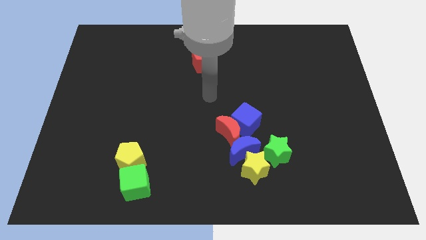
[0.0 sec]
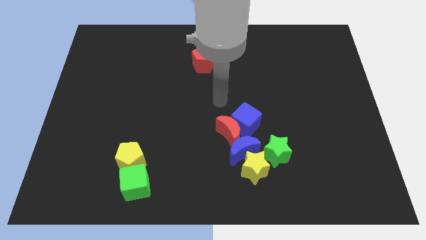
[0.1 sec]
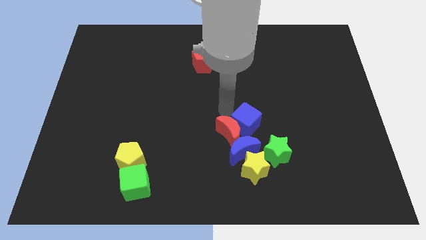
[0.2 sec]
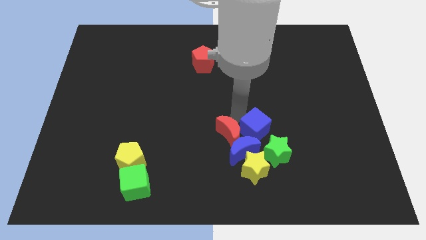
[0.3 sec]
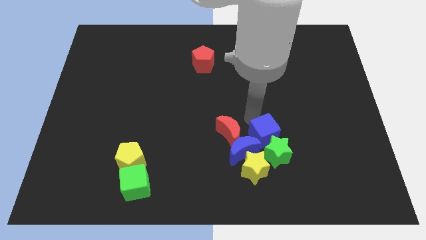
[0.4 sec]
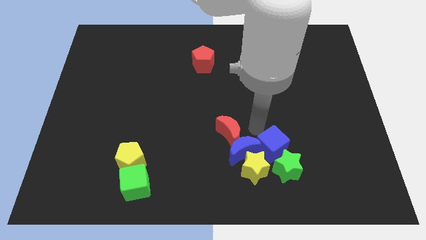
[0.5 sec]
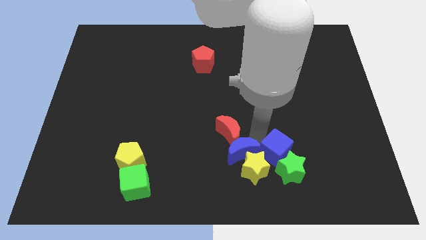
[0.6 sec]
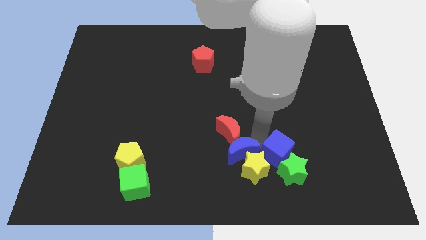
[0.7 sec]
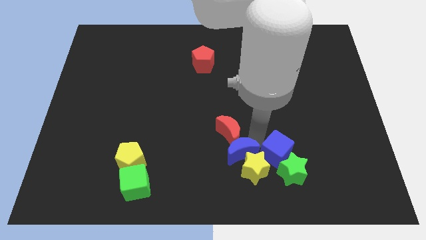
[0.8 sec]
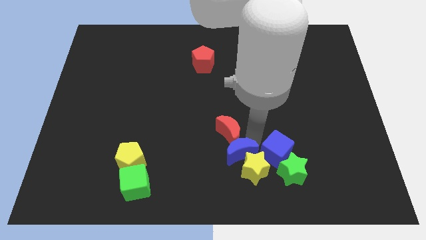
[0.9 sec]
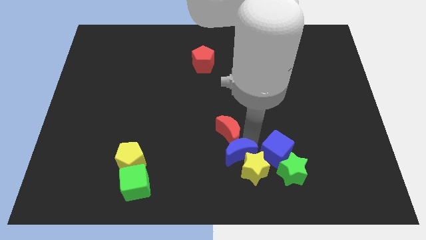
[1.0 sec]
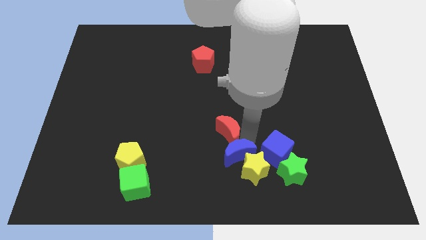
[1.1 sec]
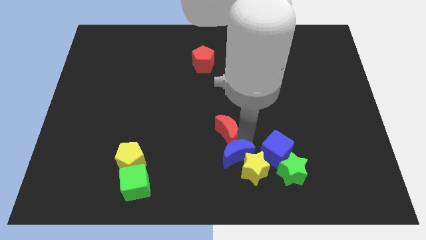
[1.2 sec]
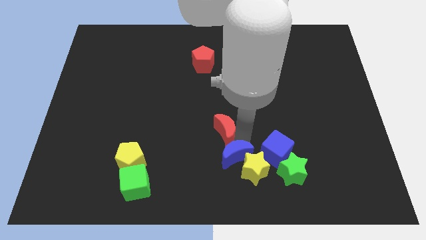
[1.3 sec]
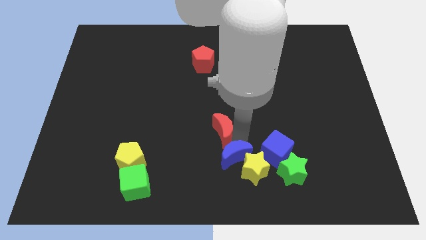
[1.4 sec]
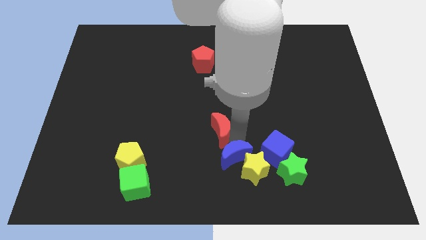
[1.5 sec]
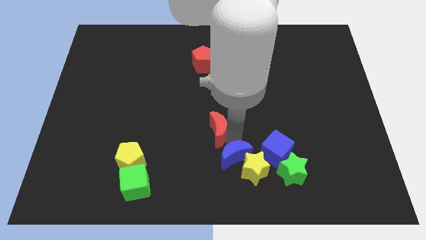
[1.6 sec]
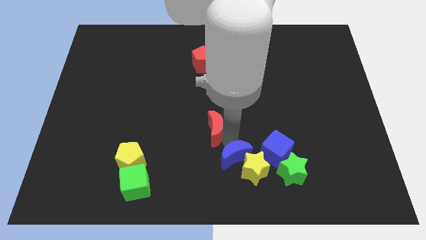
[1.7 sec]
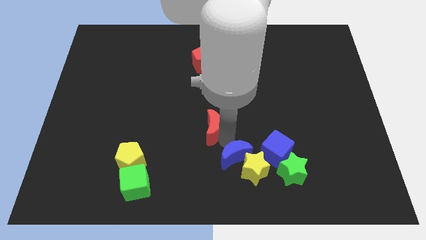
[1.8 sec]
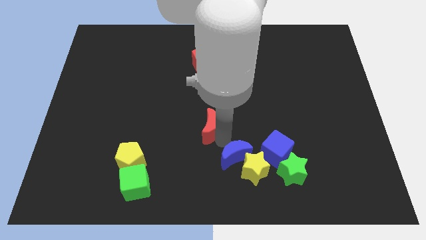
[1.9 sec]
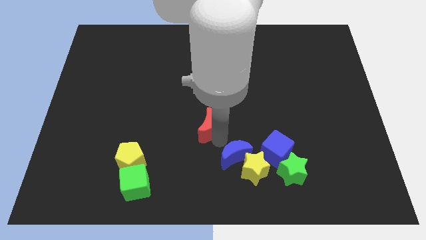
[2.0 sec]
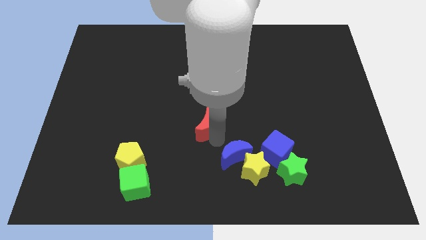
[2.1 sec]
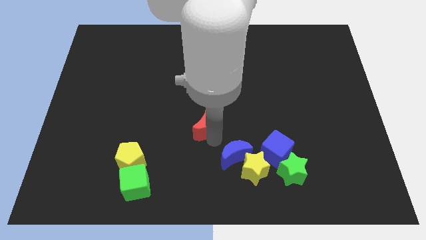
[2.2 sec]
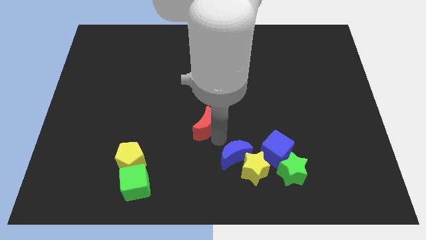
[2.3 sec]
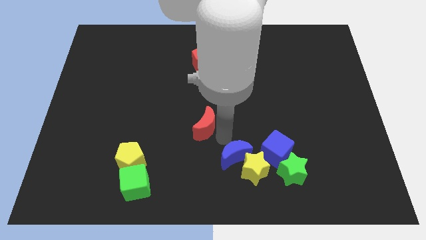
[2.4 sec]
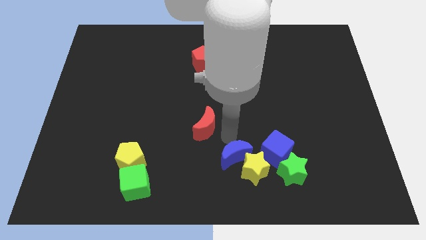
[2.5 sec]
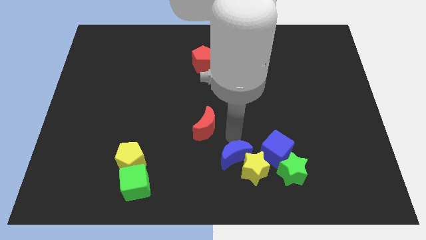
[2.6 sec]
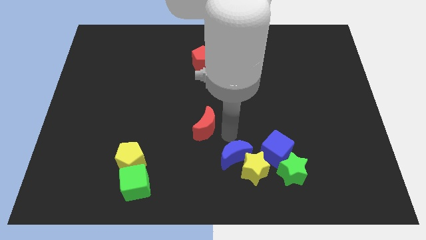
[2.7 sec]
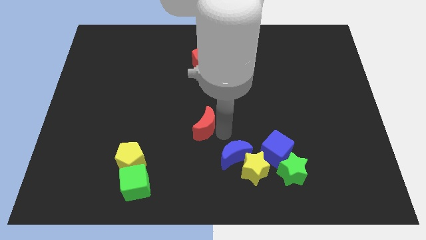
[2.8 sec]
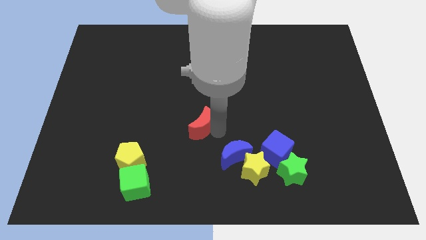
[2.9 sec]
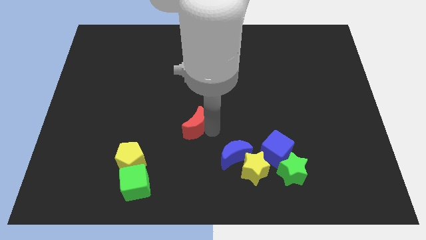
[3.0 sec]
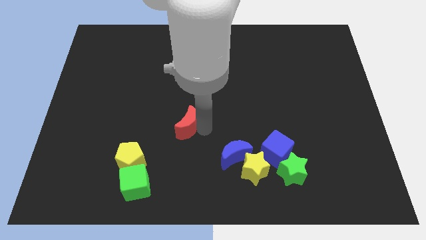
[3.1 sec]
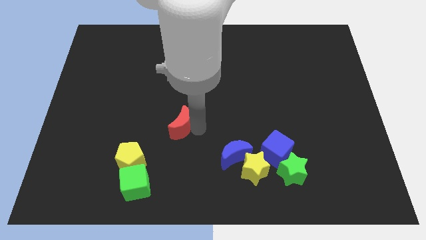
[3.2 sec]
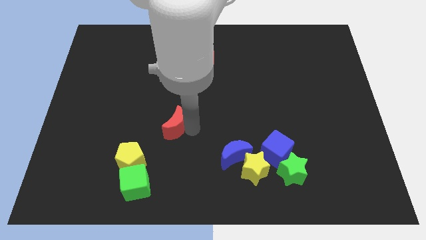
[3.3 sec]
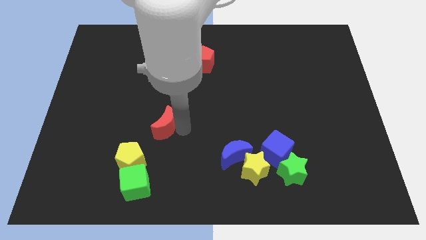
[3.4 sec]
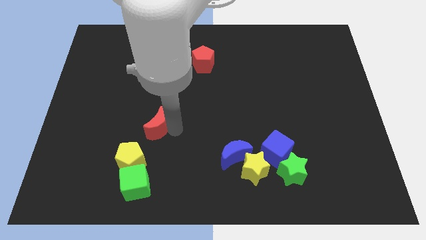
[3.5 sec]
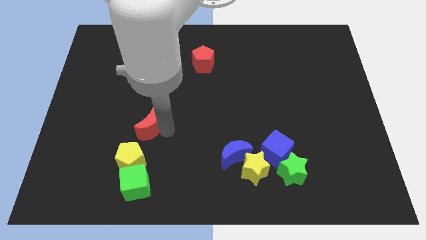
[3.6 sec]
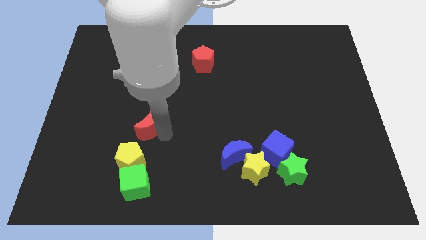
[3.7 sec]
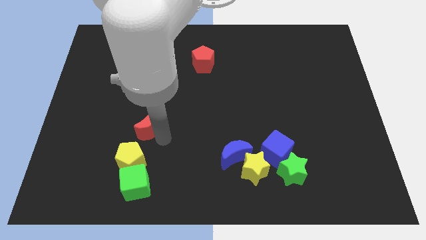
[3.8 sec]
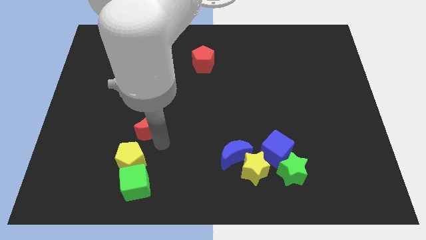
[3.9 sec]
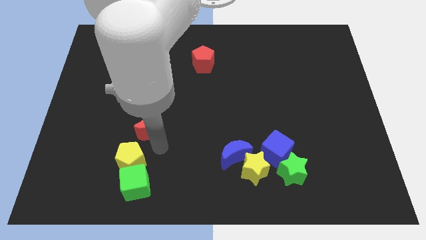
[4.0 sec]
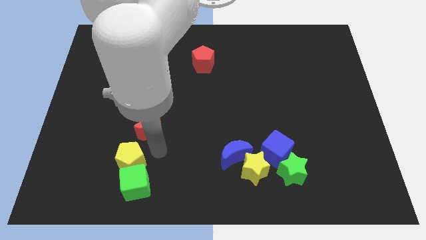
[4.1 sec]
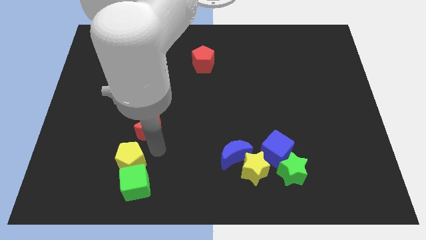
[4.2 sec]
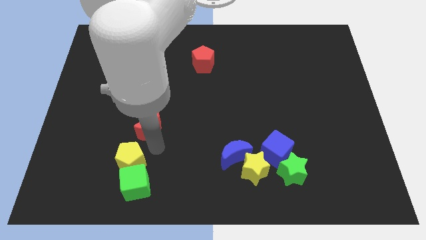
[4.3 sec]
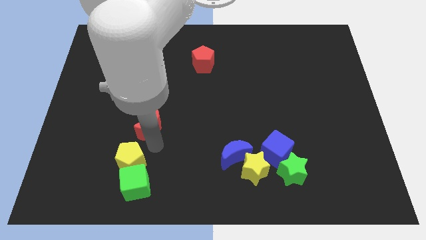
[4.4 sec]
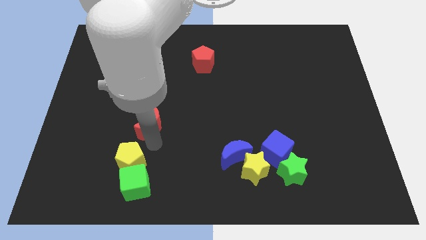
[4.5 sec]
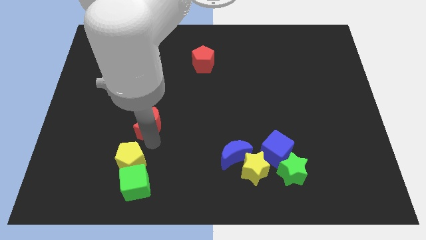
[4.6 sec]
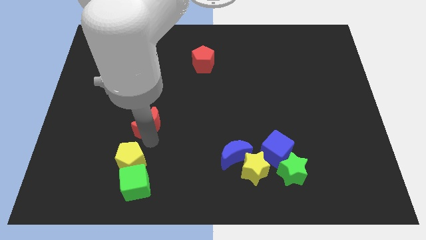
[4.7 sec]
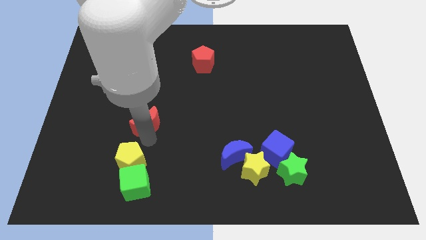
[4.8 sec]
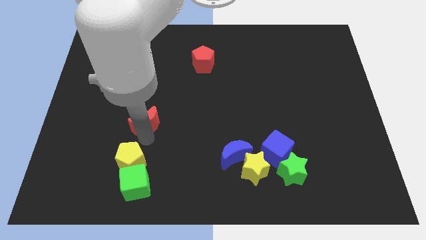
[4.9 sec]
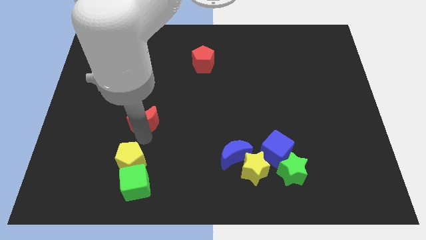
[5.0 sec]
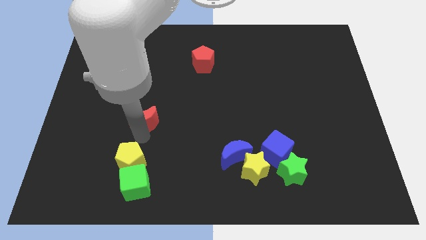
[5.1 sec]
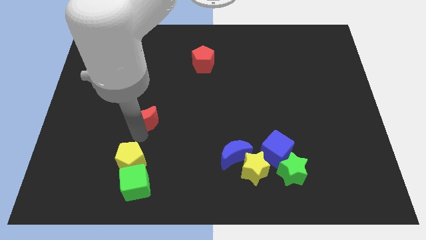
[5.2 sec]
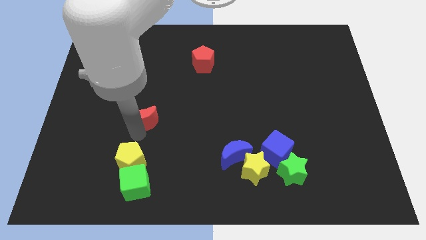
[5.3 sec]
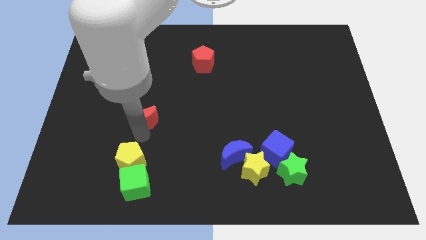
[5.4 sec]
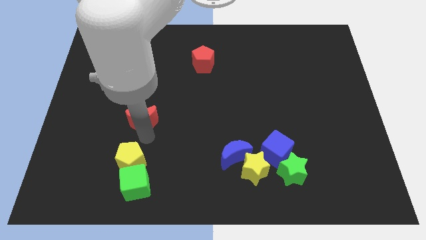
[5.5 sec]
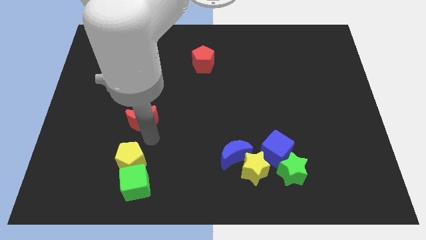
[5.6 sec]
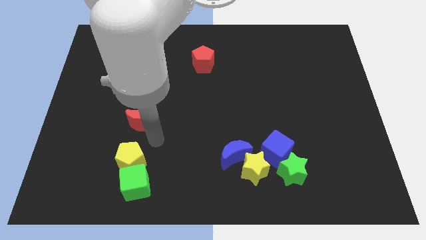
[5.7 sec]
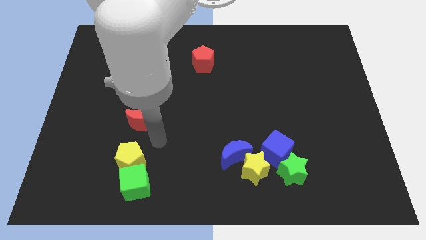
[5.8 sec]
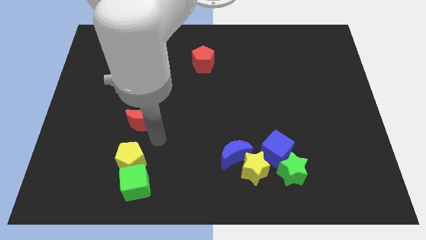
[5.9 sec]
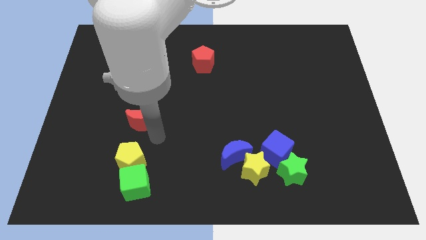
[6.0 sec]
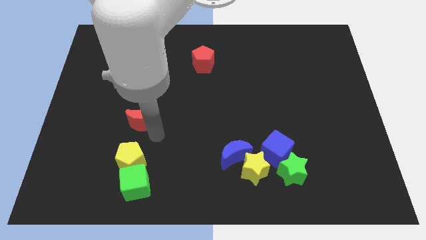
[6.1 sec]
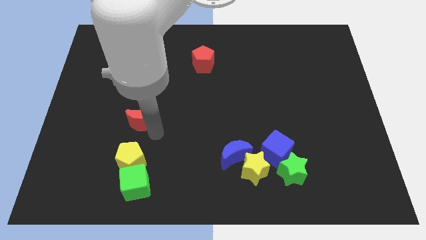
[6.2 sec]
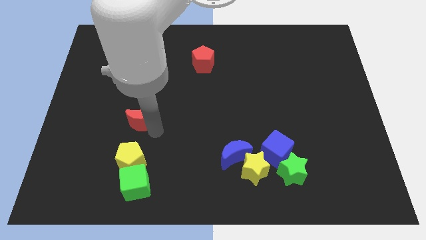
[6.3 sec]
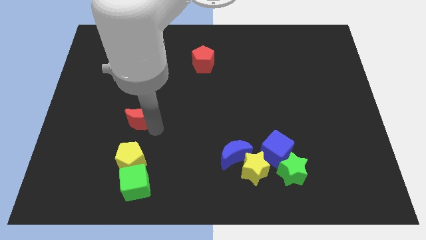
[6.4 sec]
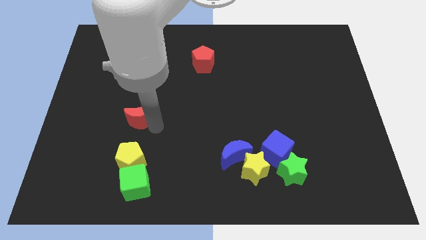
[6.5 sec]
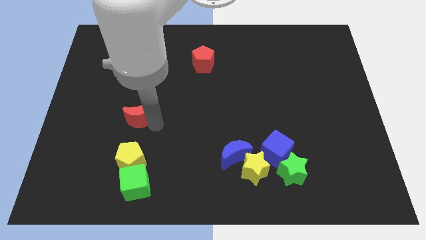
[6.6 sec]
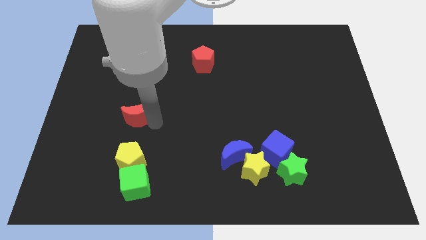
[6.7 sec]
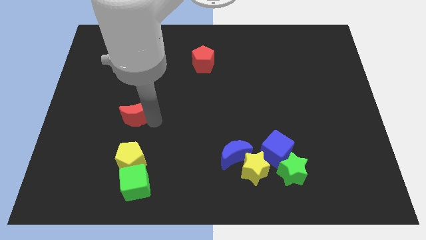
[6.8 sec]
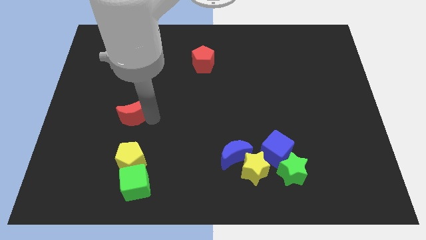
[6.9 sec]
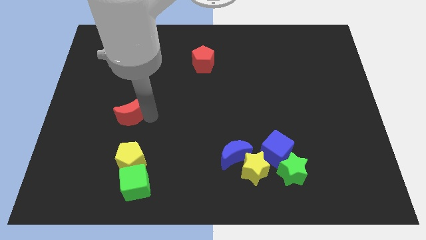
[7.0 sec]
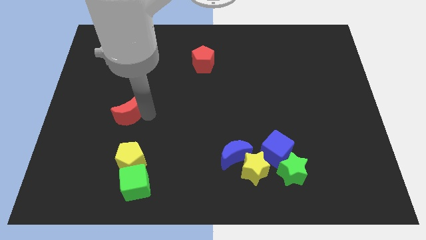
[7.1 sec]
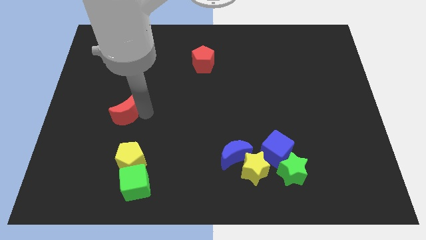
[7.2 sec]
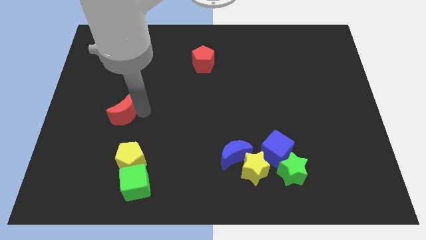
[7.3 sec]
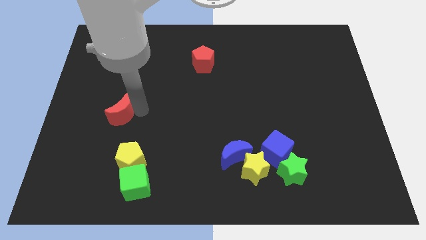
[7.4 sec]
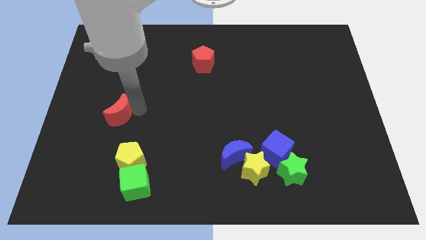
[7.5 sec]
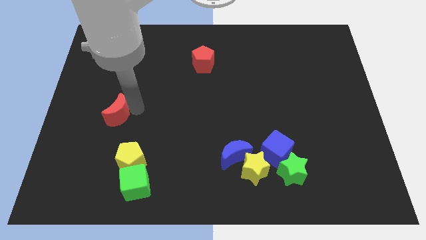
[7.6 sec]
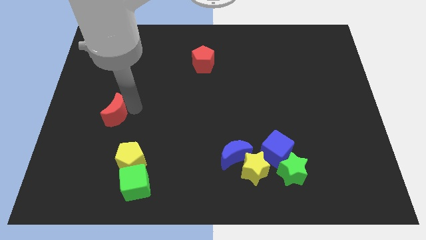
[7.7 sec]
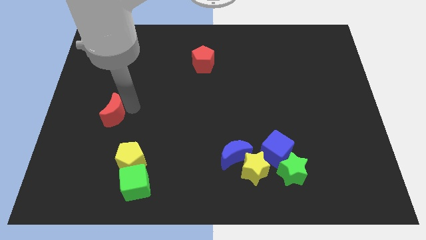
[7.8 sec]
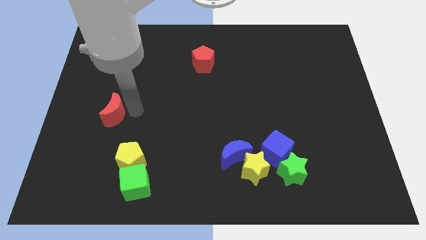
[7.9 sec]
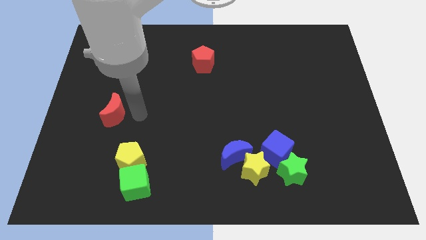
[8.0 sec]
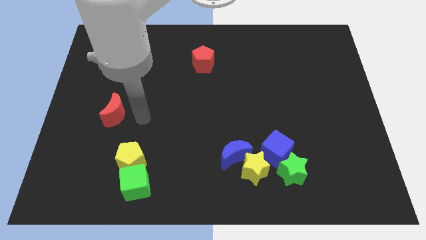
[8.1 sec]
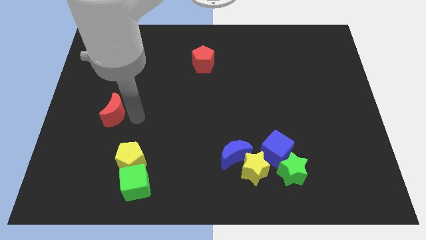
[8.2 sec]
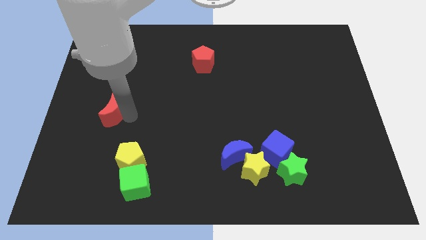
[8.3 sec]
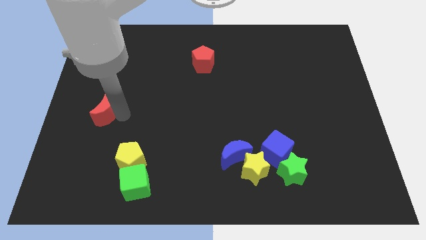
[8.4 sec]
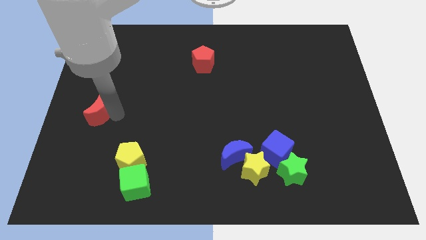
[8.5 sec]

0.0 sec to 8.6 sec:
slide the red moon to the left side
